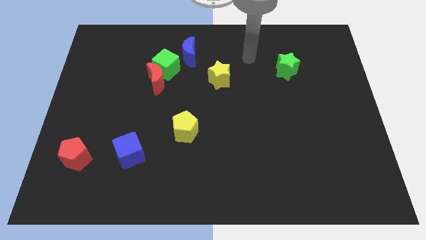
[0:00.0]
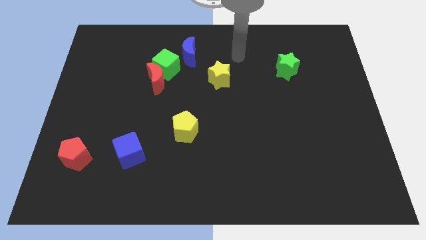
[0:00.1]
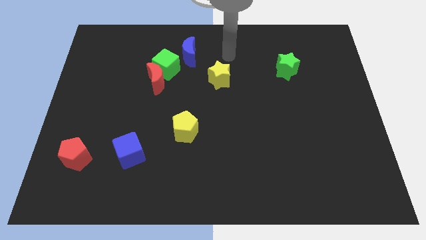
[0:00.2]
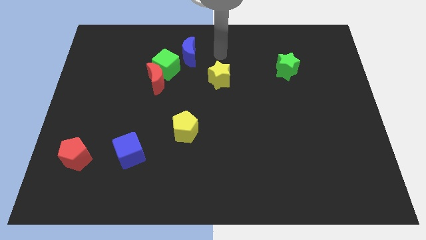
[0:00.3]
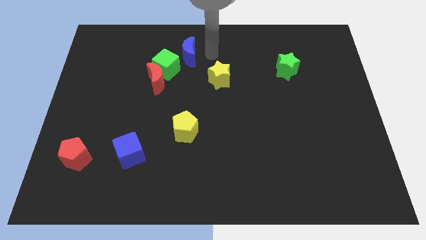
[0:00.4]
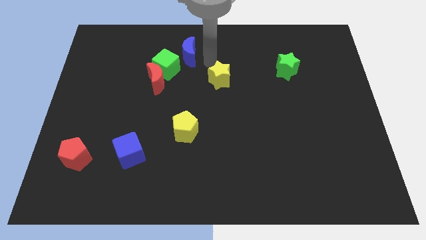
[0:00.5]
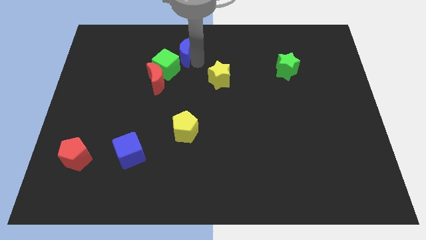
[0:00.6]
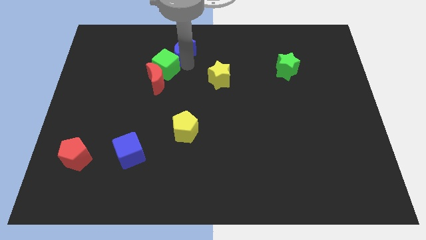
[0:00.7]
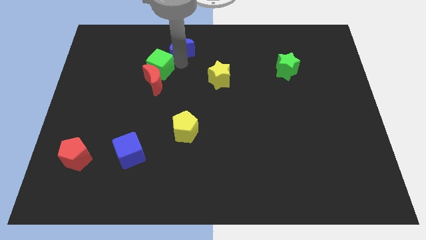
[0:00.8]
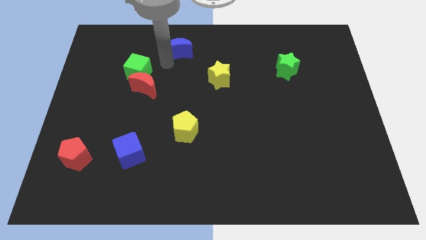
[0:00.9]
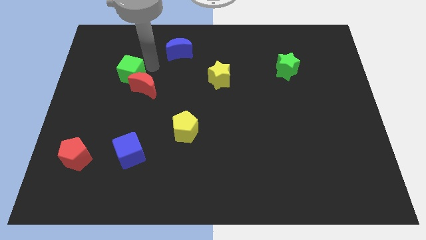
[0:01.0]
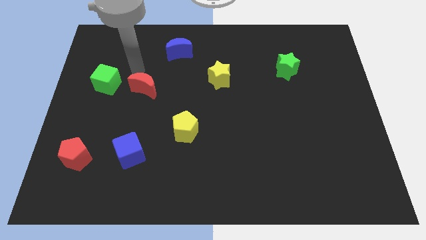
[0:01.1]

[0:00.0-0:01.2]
separate the red moon from the green cube

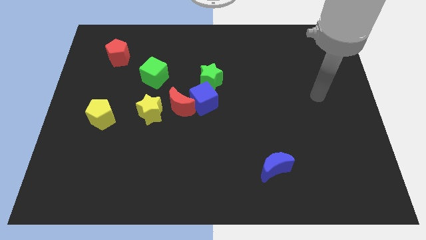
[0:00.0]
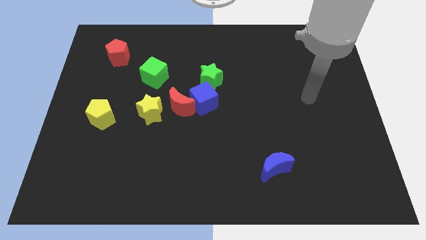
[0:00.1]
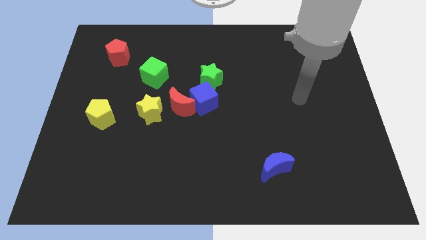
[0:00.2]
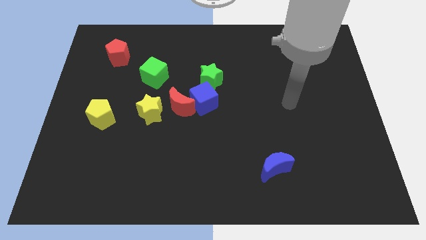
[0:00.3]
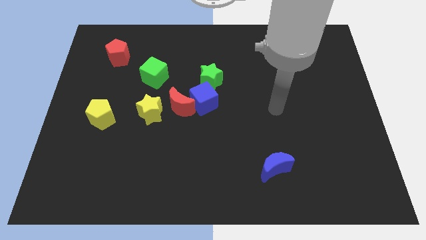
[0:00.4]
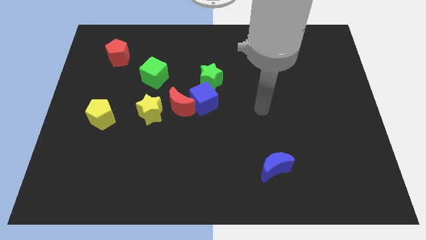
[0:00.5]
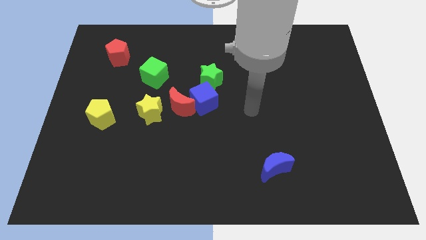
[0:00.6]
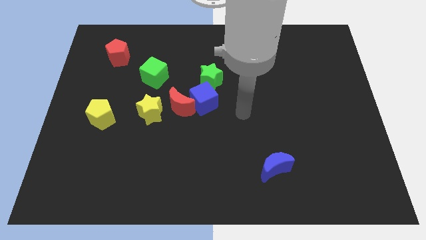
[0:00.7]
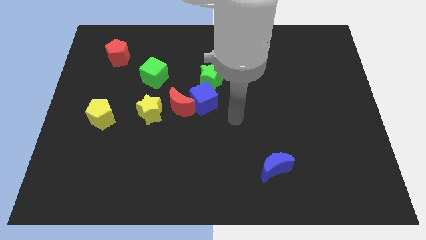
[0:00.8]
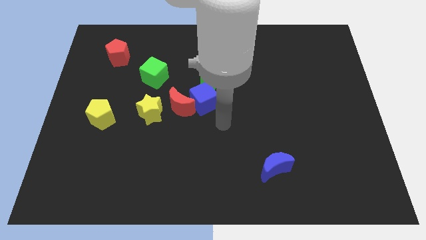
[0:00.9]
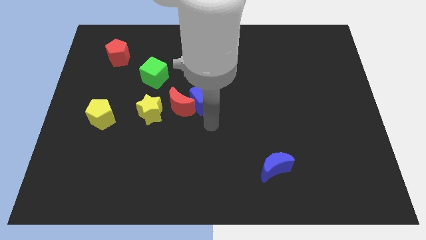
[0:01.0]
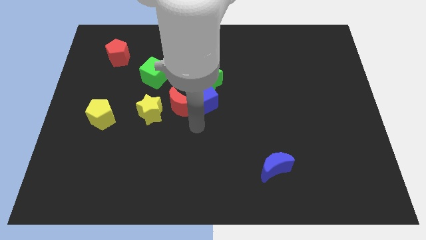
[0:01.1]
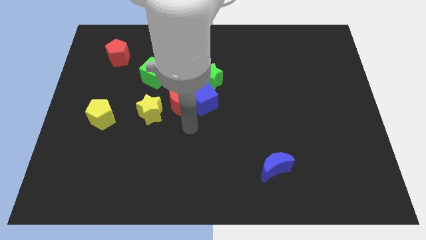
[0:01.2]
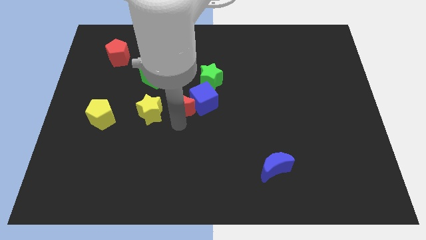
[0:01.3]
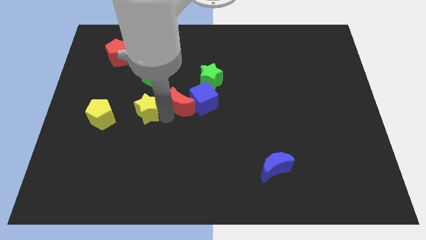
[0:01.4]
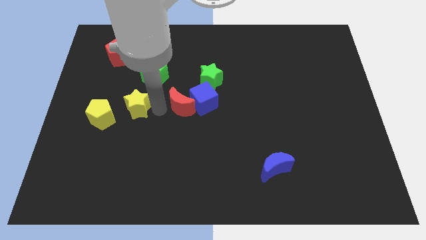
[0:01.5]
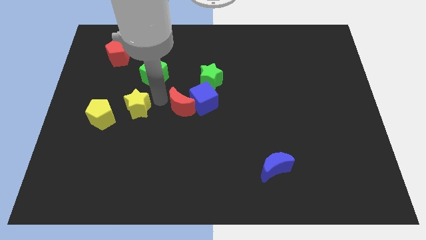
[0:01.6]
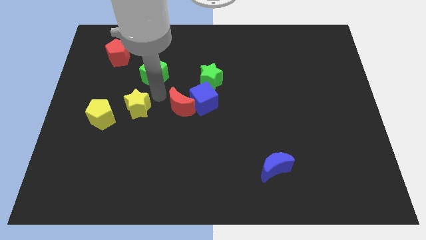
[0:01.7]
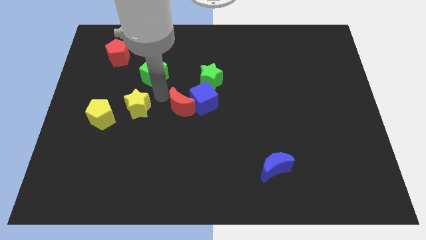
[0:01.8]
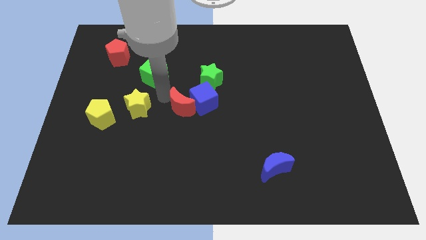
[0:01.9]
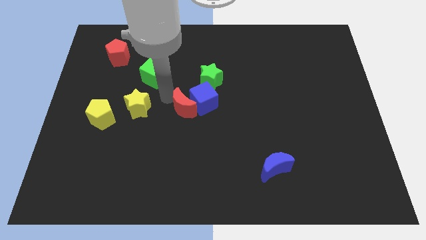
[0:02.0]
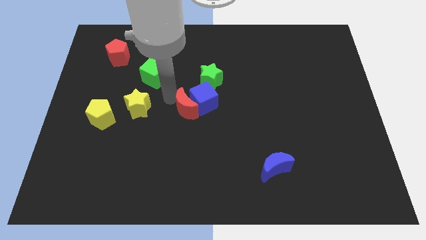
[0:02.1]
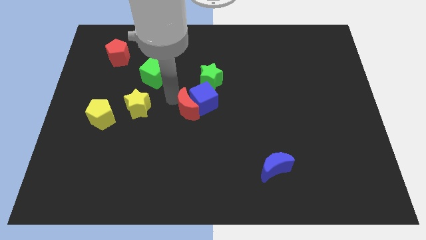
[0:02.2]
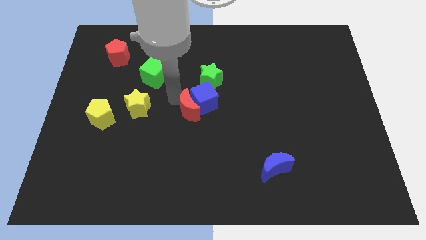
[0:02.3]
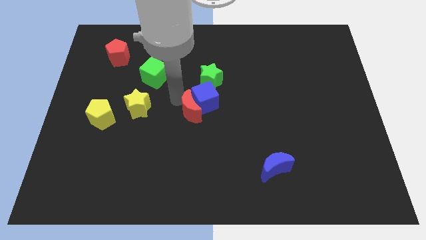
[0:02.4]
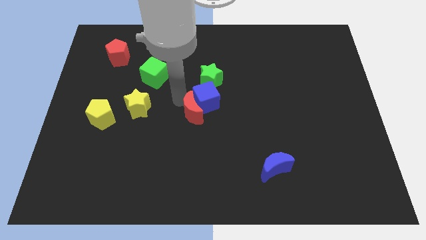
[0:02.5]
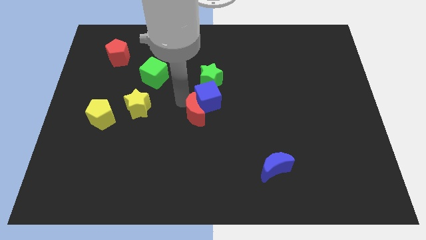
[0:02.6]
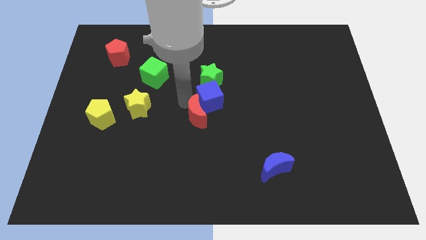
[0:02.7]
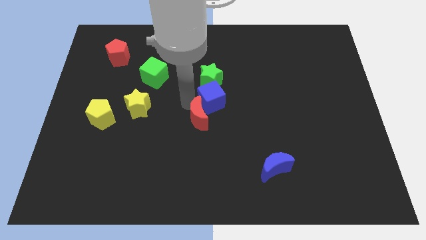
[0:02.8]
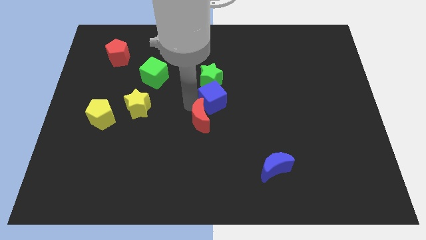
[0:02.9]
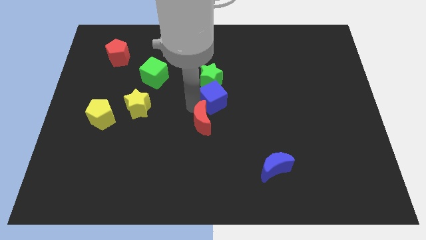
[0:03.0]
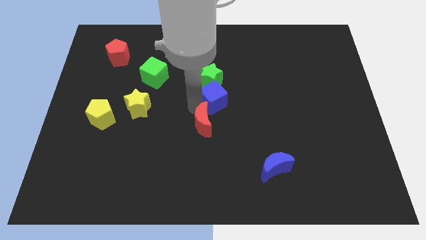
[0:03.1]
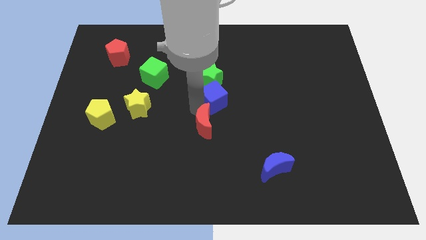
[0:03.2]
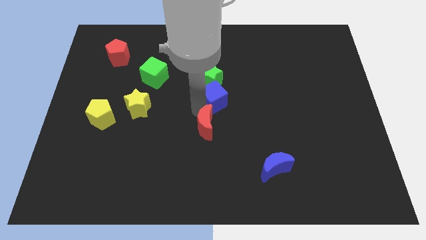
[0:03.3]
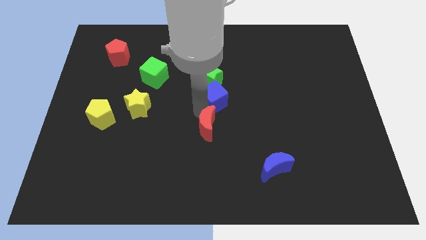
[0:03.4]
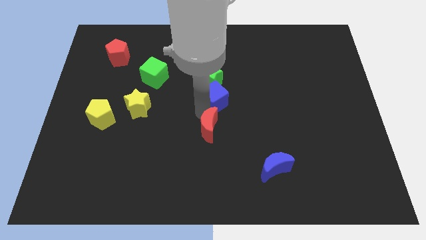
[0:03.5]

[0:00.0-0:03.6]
move the red moon away from the blue cube and yellow star

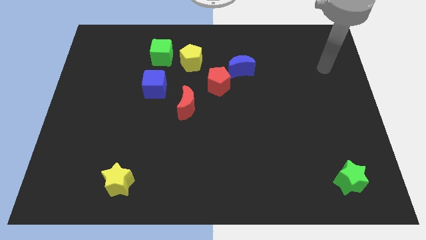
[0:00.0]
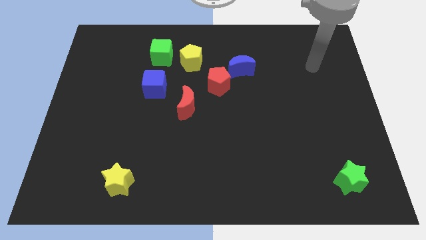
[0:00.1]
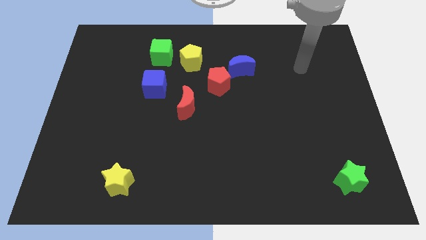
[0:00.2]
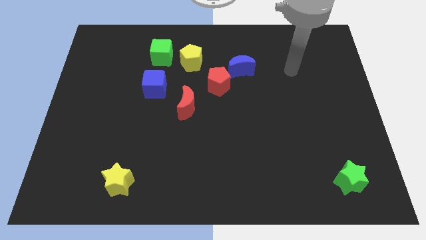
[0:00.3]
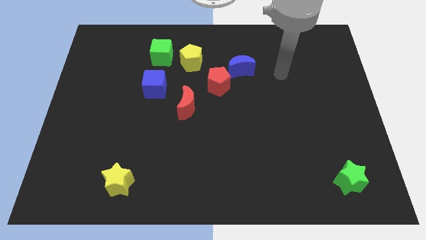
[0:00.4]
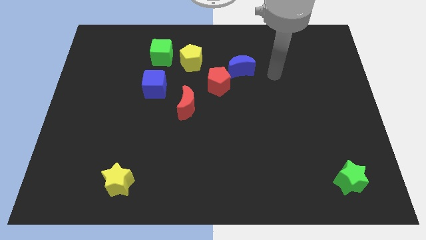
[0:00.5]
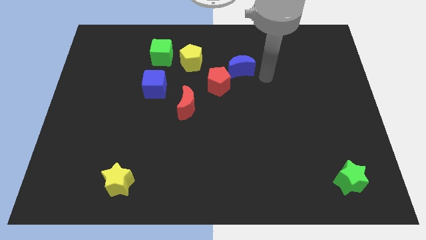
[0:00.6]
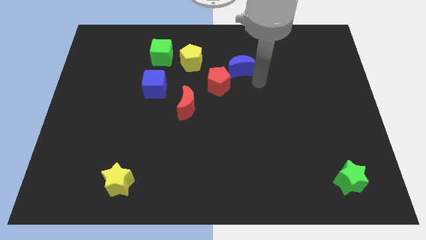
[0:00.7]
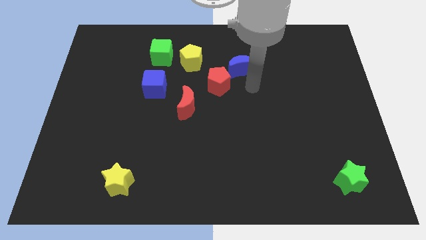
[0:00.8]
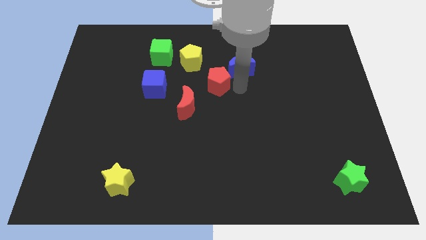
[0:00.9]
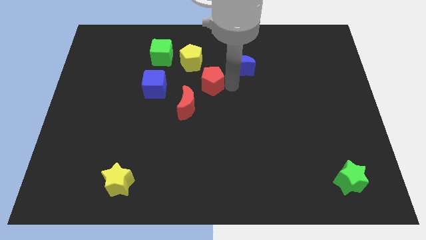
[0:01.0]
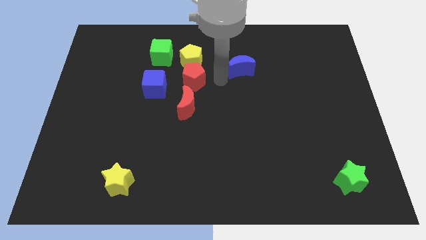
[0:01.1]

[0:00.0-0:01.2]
move the blue moon away from the red pentagon

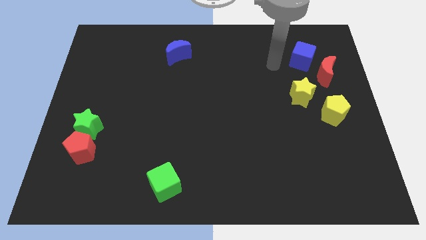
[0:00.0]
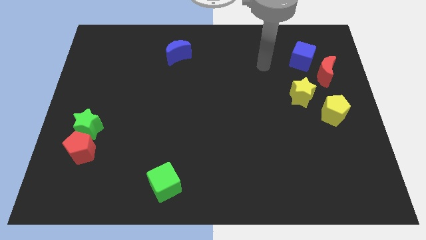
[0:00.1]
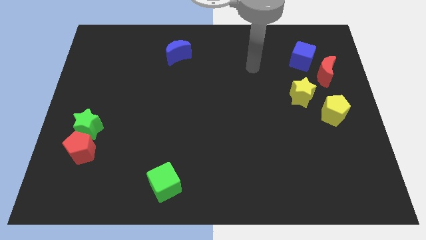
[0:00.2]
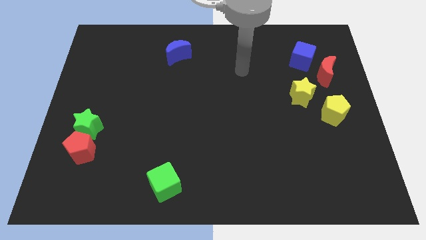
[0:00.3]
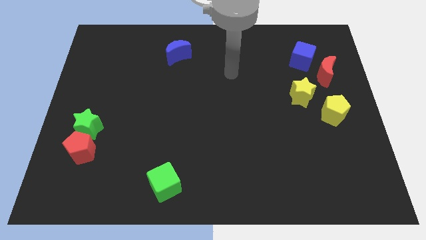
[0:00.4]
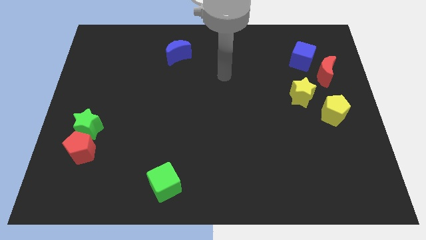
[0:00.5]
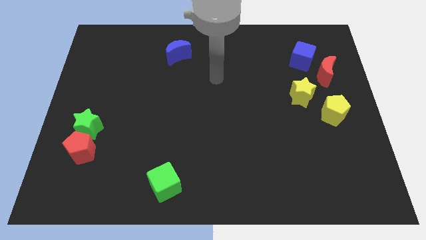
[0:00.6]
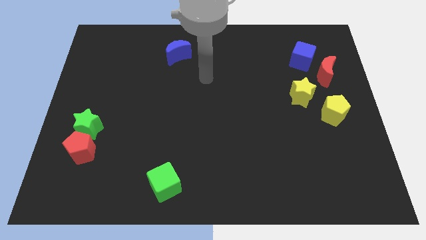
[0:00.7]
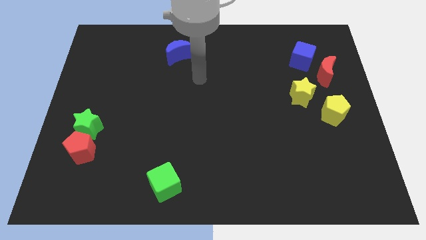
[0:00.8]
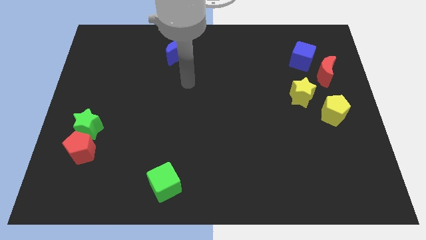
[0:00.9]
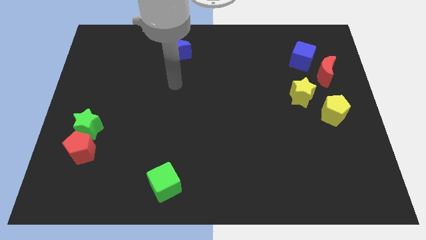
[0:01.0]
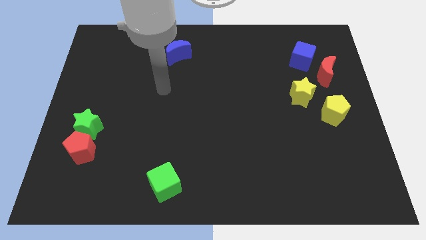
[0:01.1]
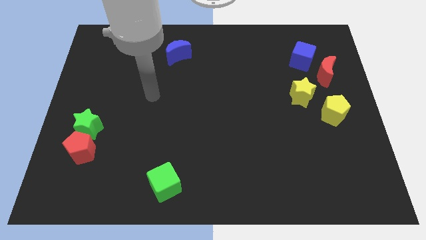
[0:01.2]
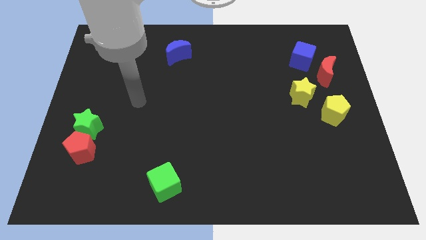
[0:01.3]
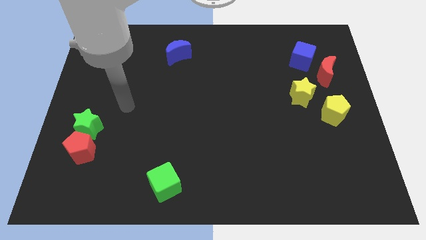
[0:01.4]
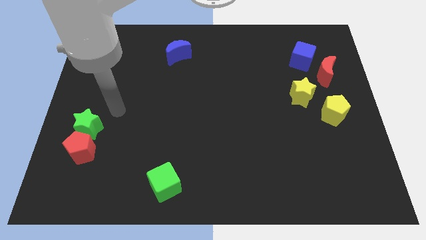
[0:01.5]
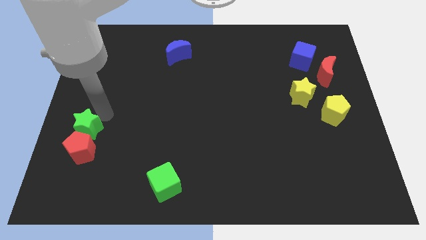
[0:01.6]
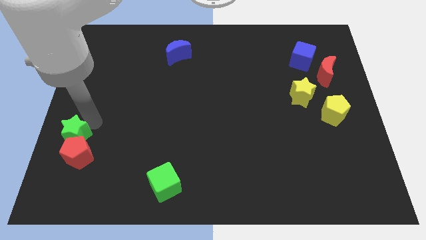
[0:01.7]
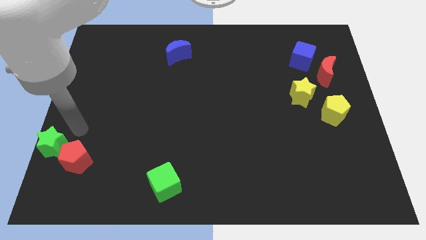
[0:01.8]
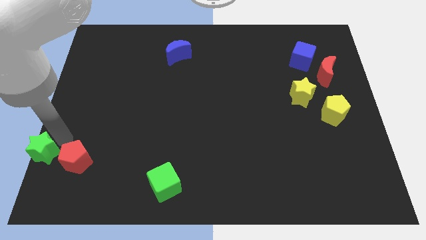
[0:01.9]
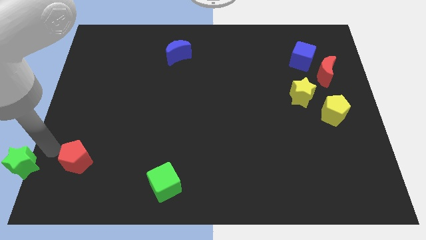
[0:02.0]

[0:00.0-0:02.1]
separate the red pentagon from the green star

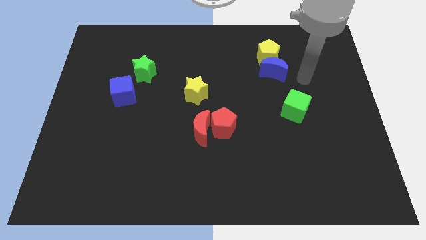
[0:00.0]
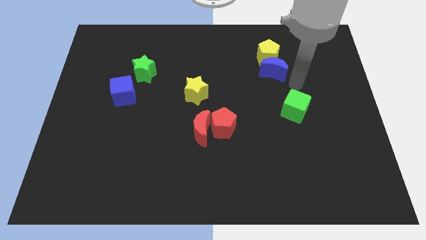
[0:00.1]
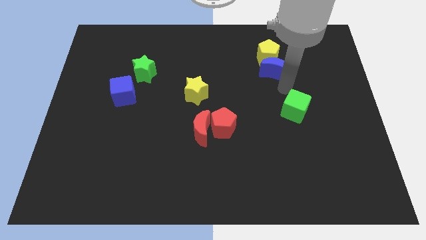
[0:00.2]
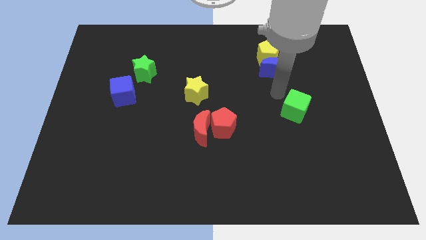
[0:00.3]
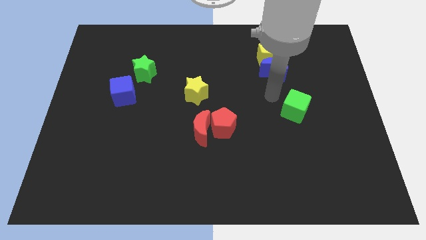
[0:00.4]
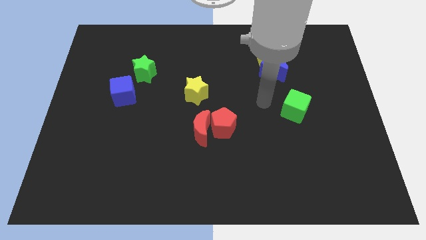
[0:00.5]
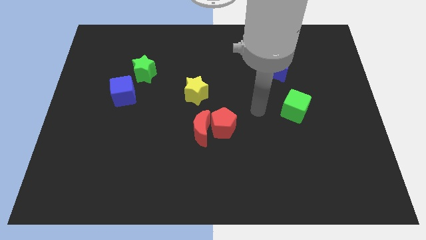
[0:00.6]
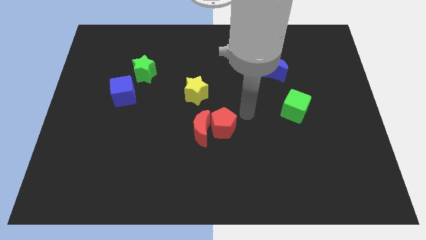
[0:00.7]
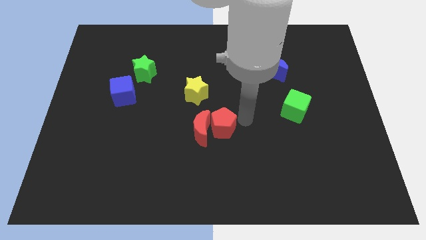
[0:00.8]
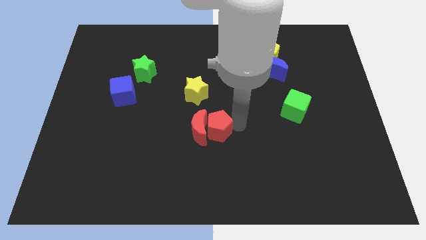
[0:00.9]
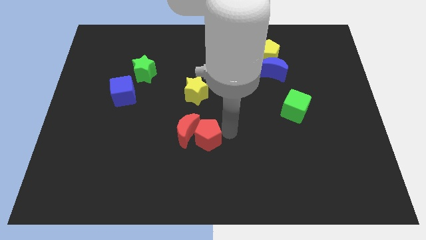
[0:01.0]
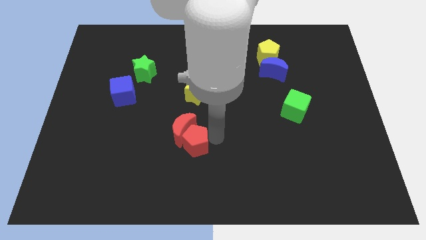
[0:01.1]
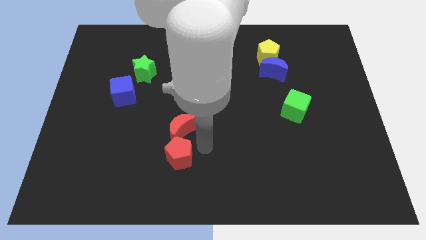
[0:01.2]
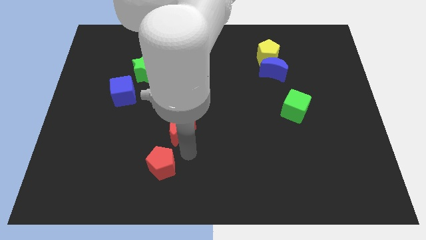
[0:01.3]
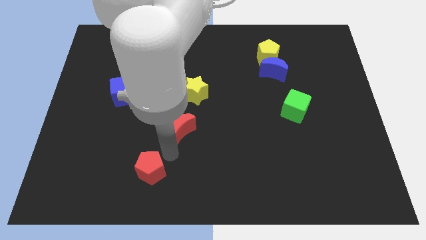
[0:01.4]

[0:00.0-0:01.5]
separate the red moon from the red pentagon
